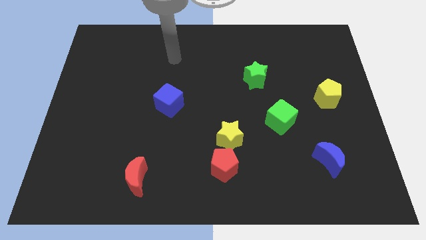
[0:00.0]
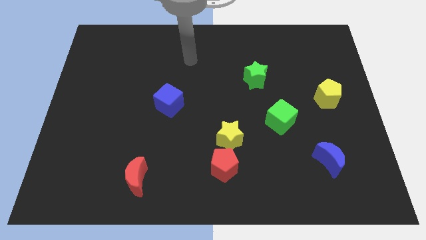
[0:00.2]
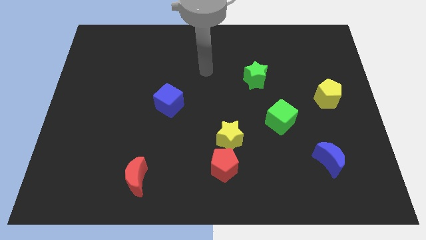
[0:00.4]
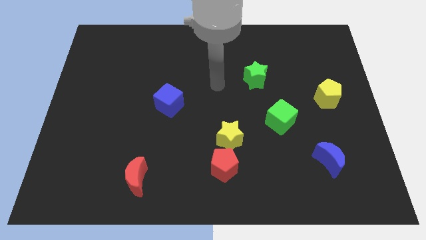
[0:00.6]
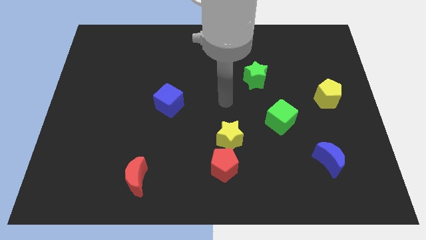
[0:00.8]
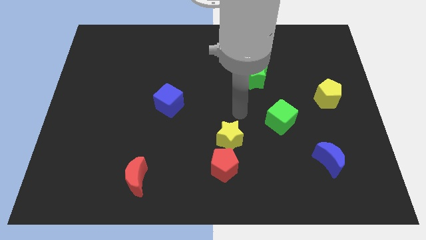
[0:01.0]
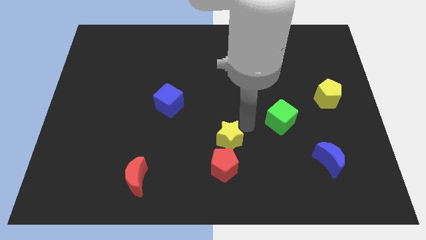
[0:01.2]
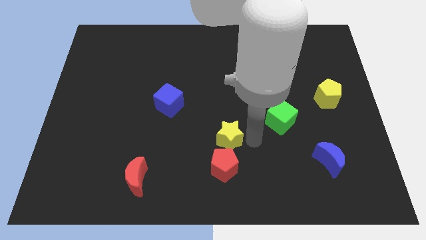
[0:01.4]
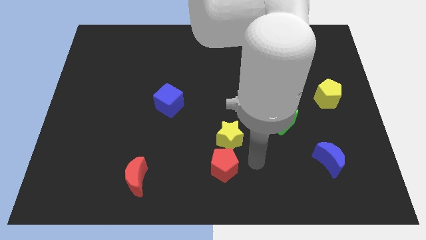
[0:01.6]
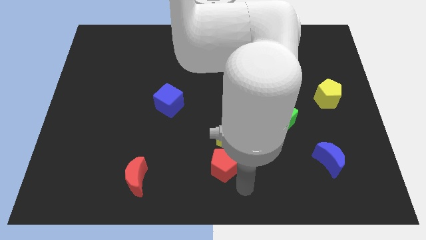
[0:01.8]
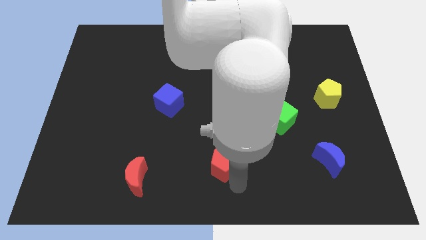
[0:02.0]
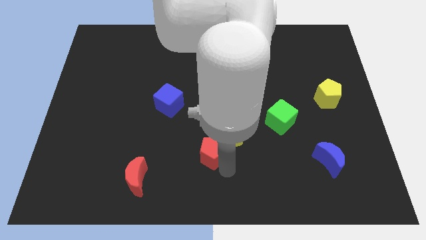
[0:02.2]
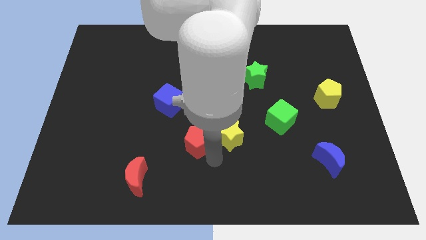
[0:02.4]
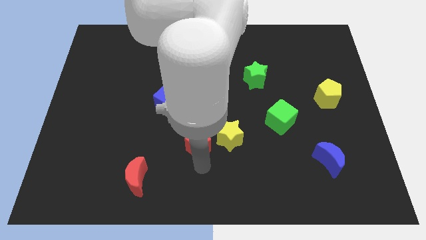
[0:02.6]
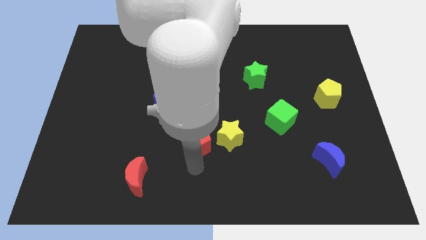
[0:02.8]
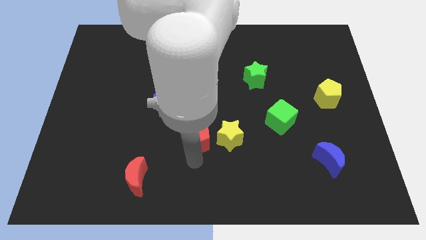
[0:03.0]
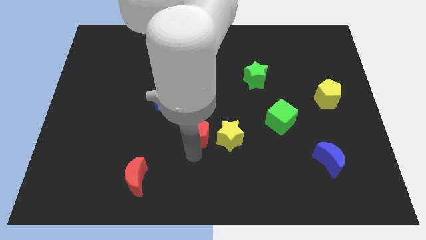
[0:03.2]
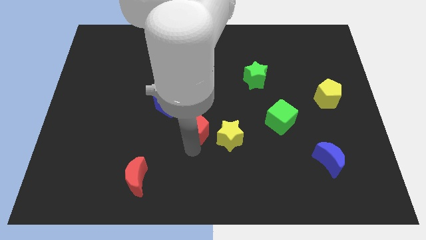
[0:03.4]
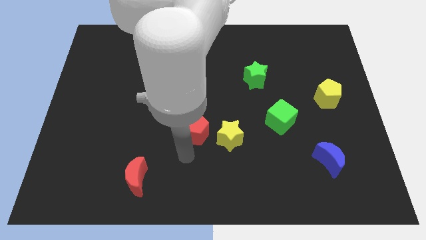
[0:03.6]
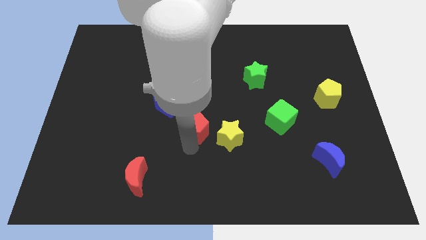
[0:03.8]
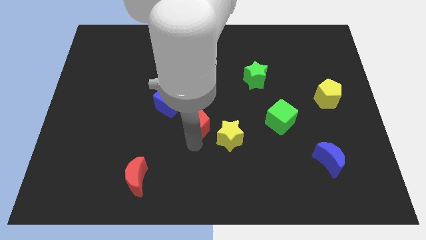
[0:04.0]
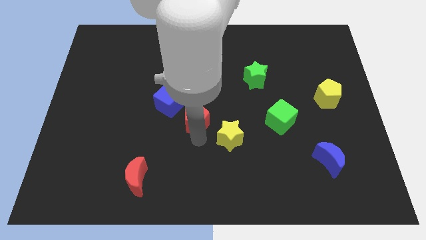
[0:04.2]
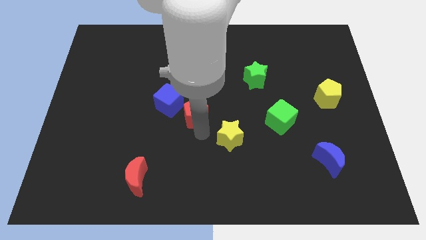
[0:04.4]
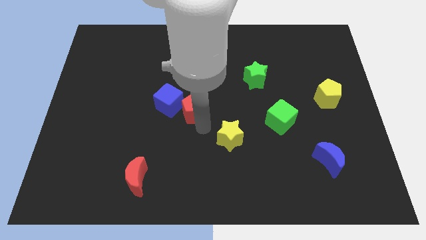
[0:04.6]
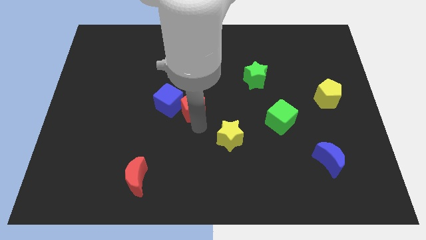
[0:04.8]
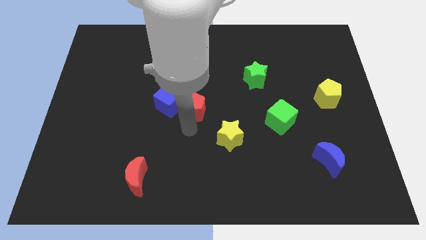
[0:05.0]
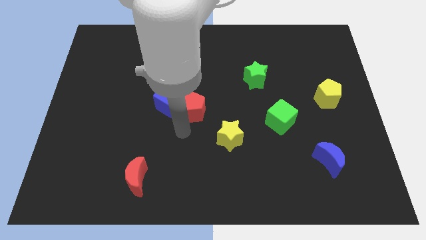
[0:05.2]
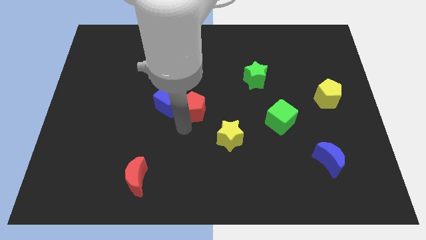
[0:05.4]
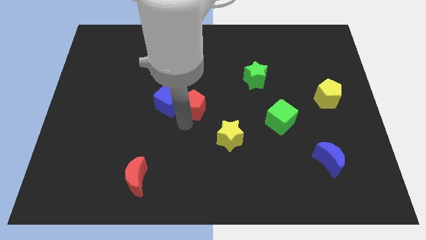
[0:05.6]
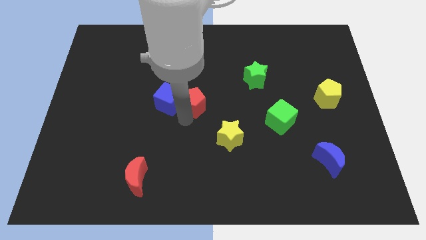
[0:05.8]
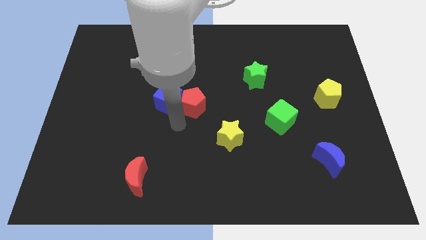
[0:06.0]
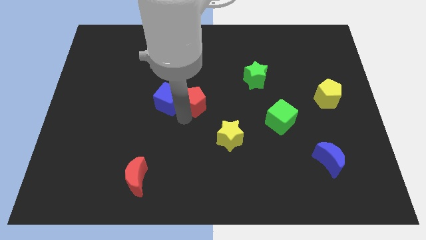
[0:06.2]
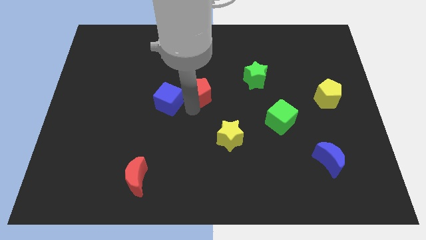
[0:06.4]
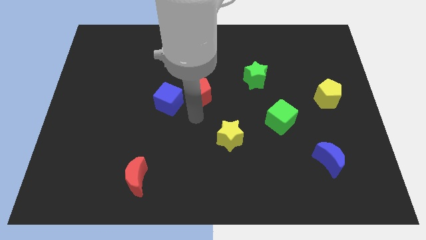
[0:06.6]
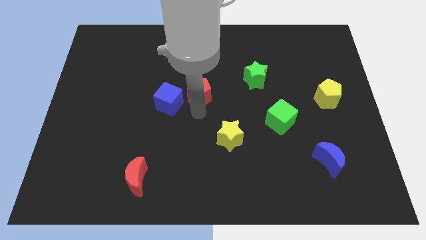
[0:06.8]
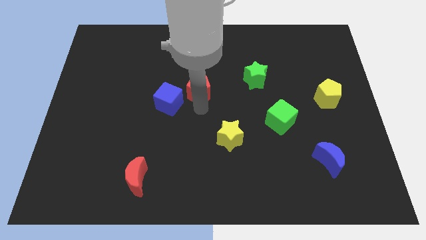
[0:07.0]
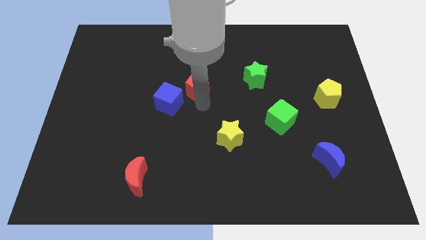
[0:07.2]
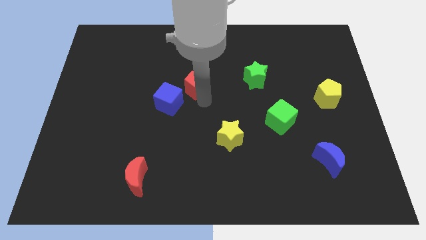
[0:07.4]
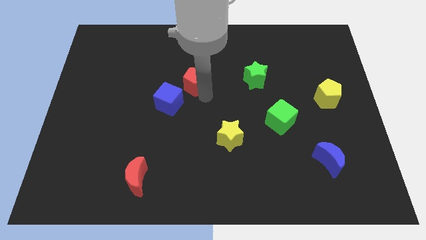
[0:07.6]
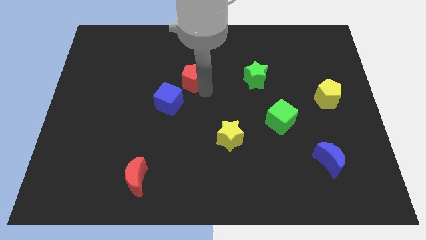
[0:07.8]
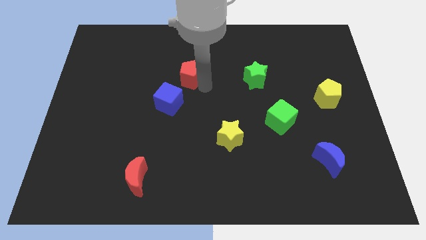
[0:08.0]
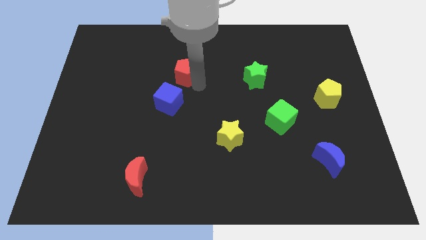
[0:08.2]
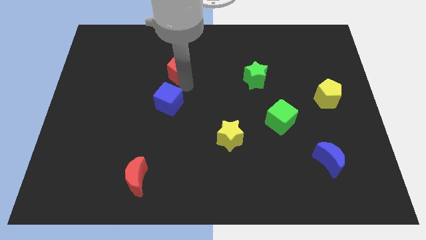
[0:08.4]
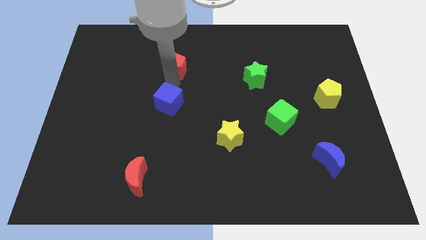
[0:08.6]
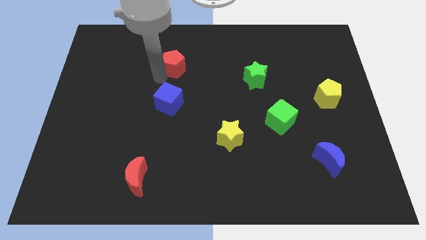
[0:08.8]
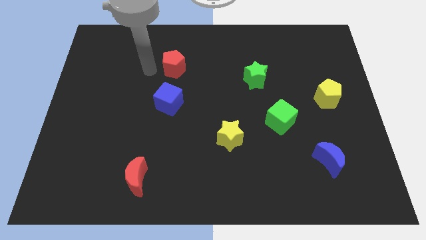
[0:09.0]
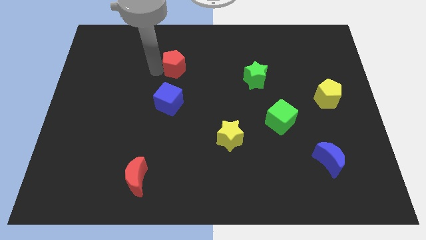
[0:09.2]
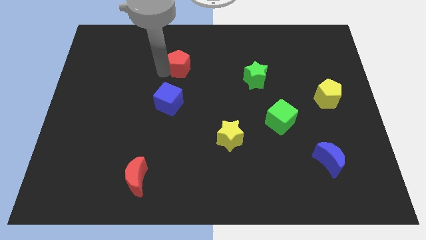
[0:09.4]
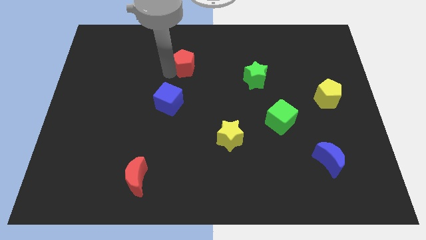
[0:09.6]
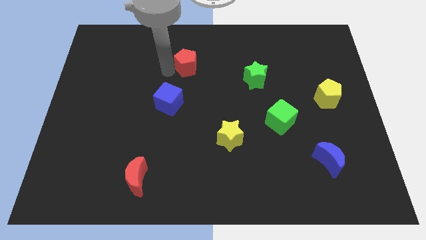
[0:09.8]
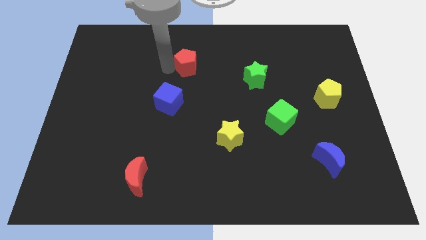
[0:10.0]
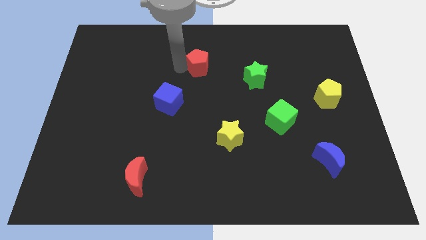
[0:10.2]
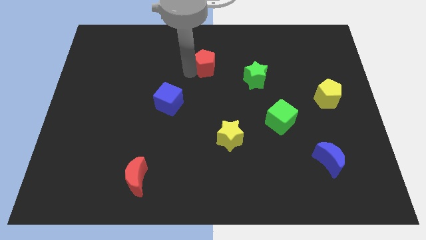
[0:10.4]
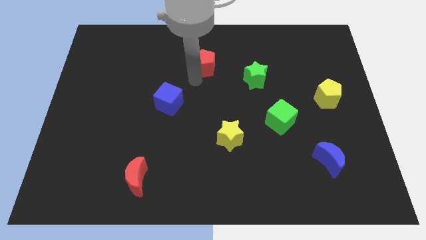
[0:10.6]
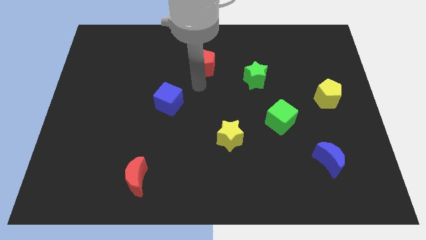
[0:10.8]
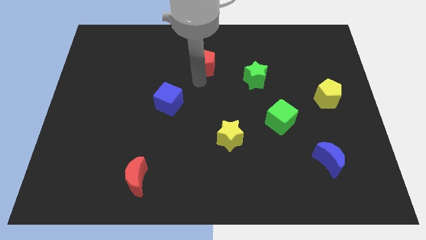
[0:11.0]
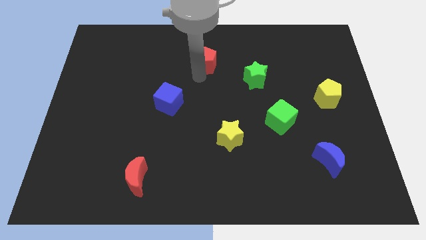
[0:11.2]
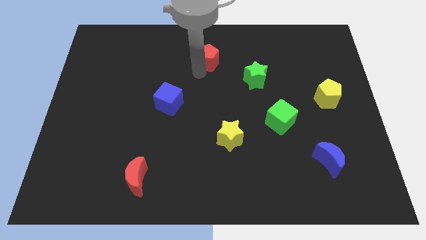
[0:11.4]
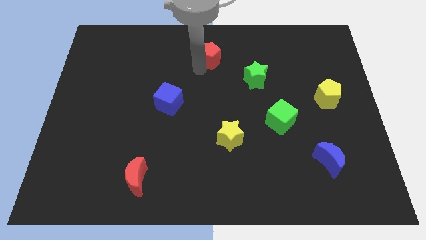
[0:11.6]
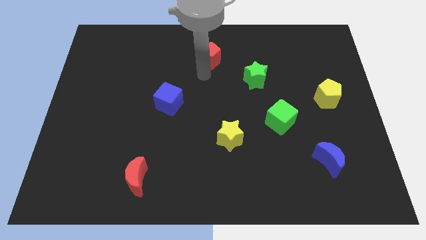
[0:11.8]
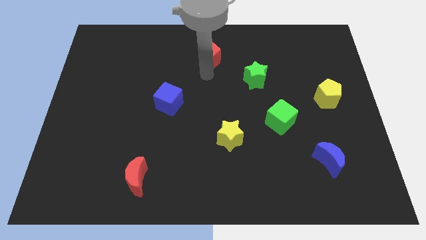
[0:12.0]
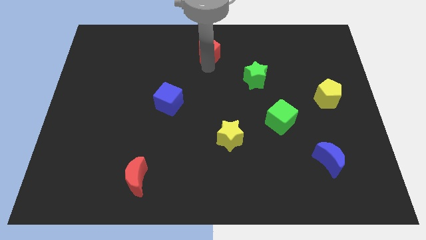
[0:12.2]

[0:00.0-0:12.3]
push the red pentagon to the top

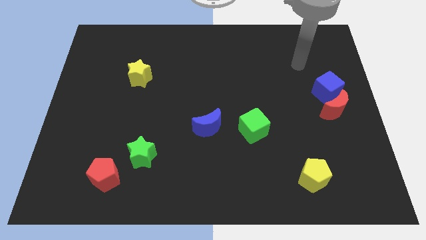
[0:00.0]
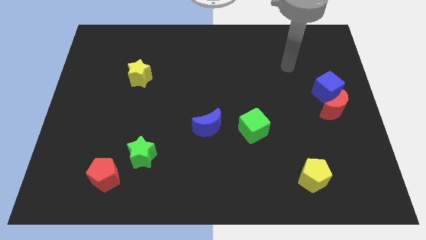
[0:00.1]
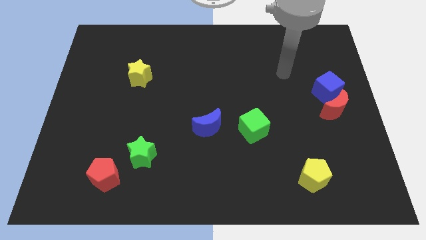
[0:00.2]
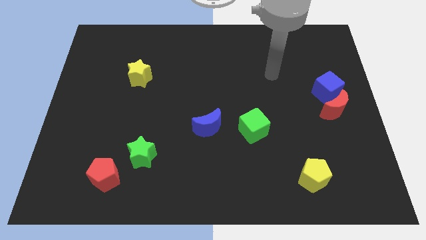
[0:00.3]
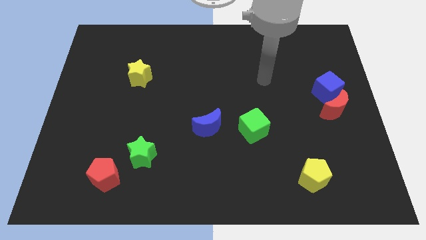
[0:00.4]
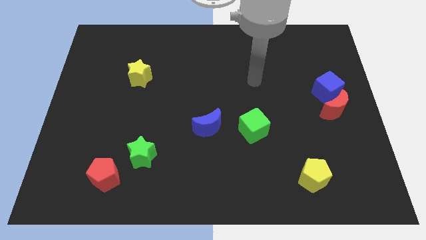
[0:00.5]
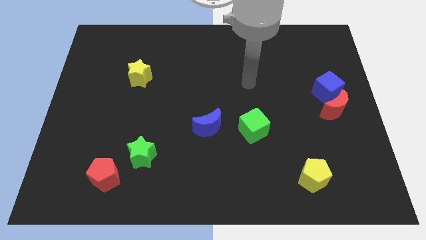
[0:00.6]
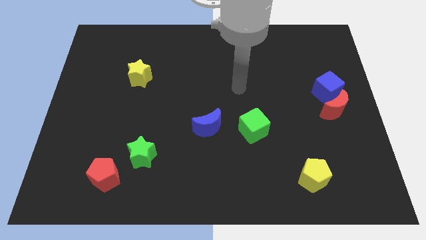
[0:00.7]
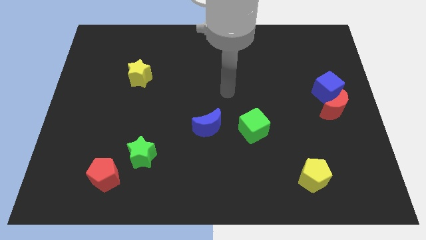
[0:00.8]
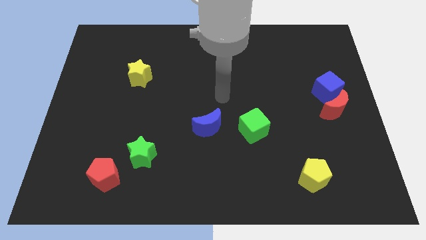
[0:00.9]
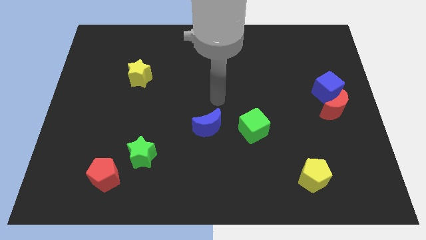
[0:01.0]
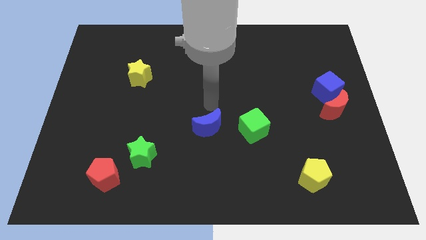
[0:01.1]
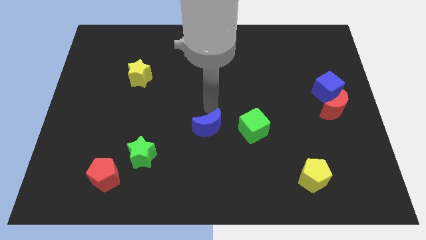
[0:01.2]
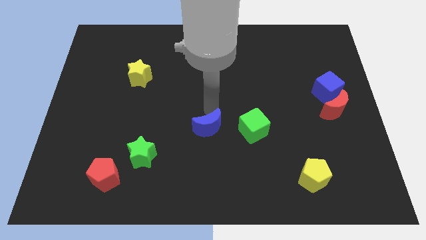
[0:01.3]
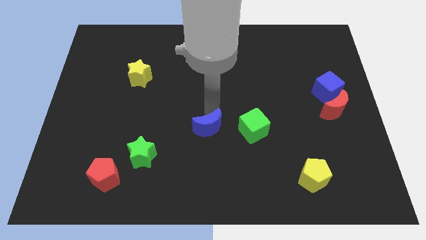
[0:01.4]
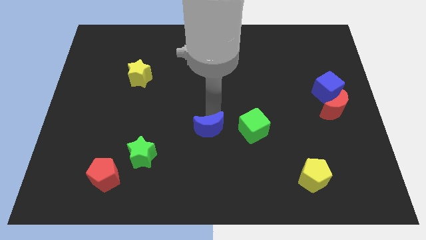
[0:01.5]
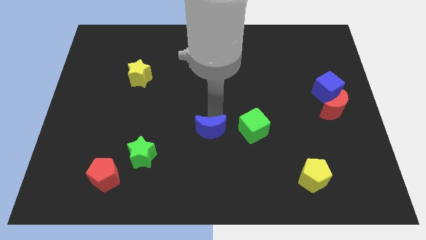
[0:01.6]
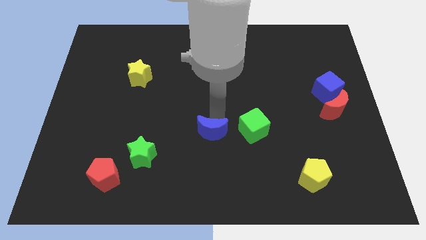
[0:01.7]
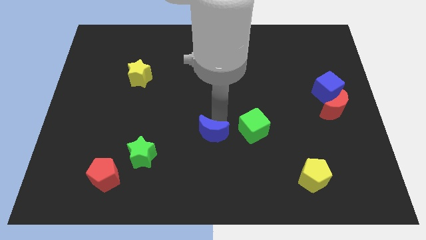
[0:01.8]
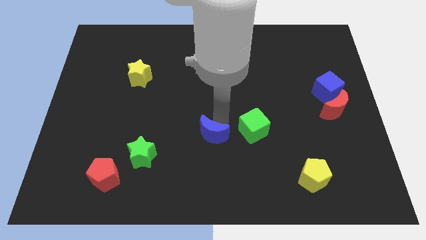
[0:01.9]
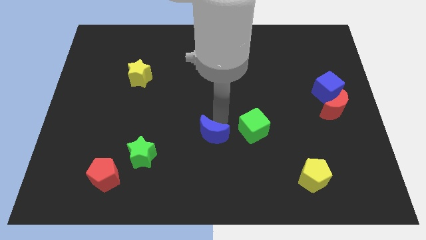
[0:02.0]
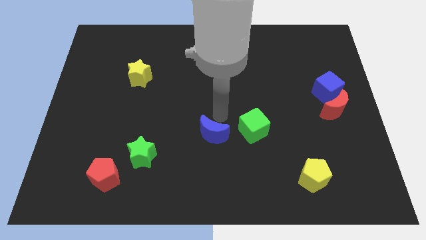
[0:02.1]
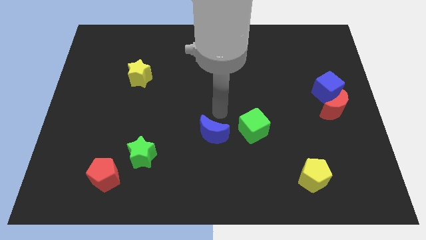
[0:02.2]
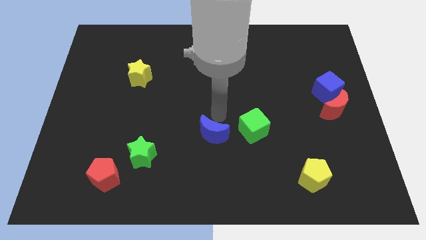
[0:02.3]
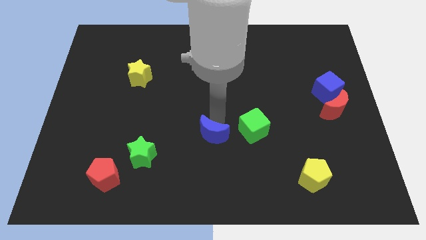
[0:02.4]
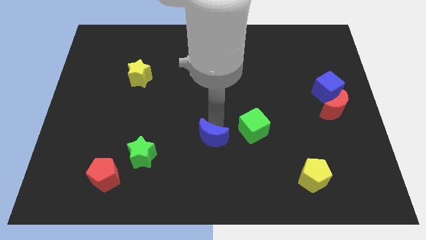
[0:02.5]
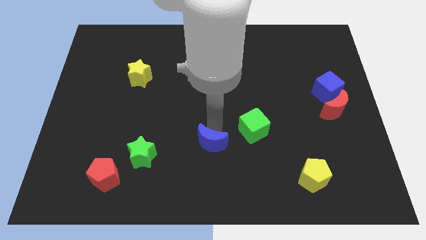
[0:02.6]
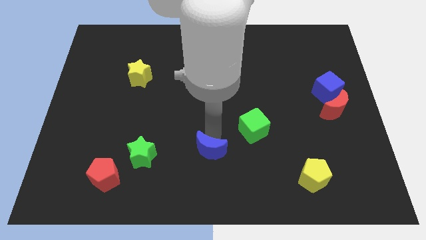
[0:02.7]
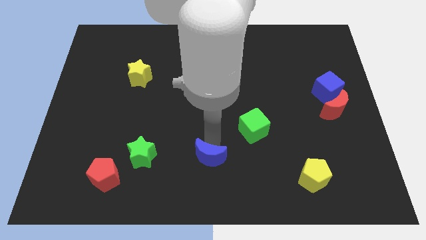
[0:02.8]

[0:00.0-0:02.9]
push the blue moon to the bottom side
